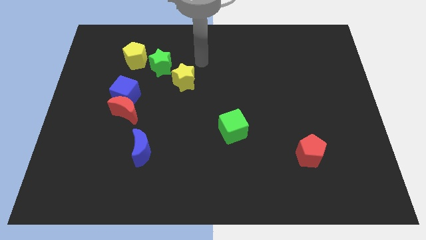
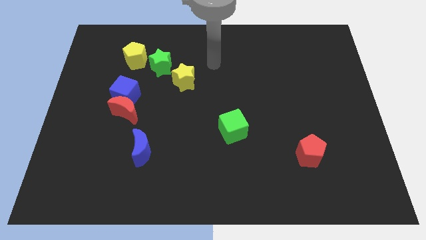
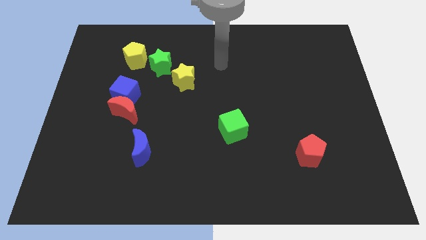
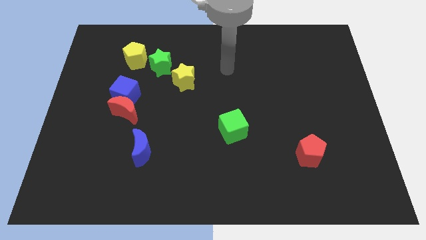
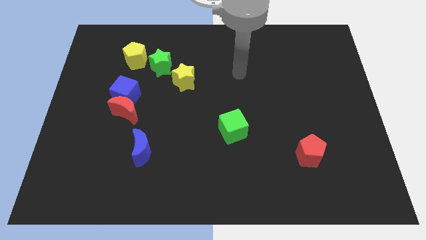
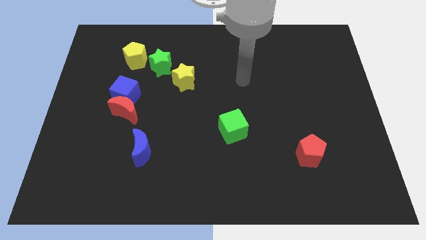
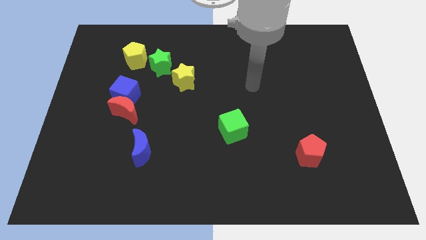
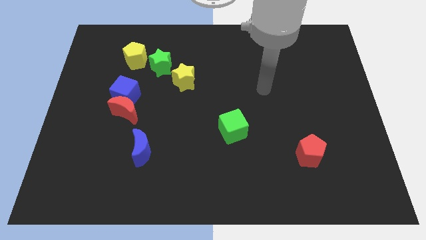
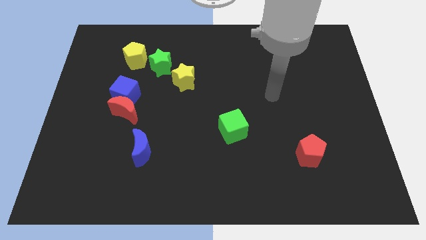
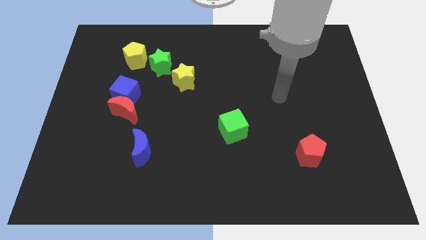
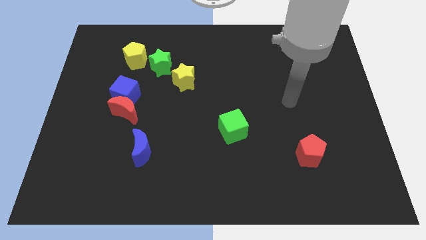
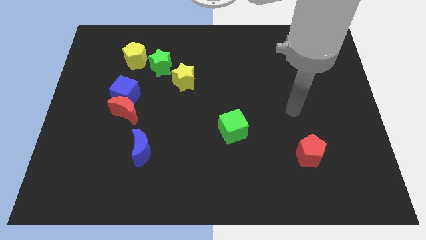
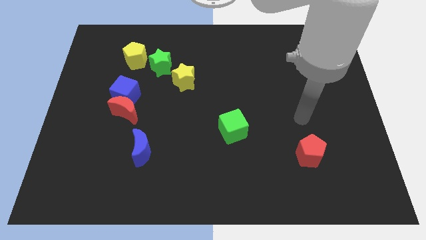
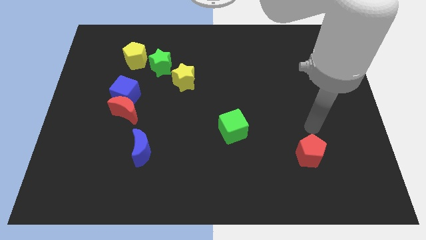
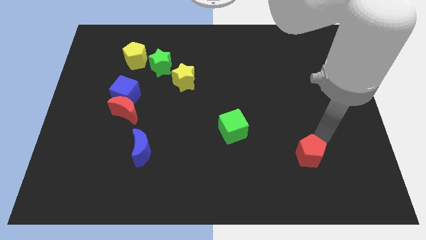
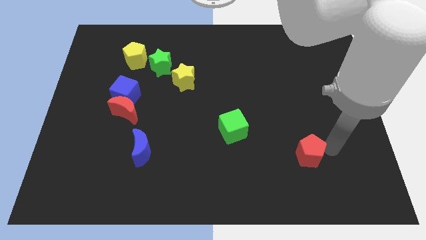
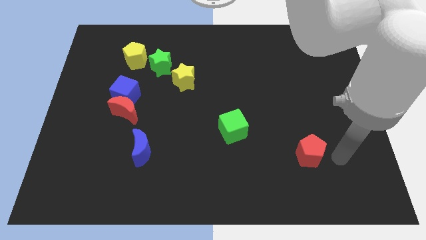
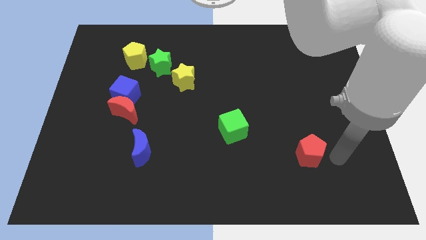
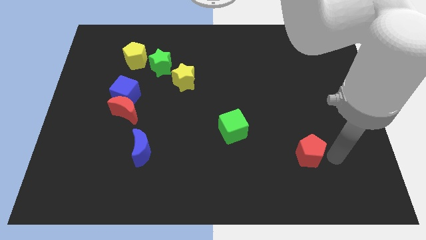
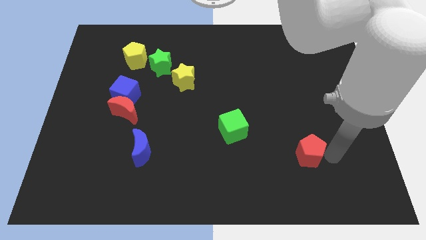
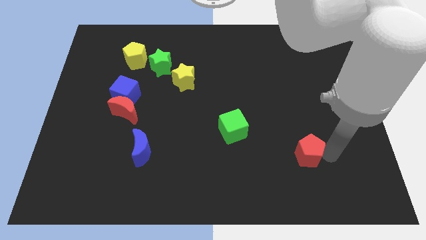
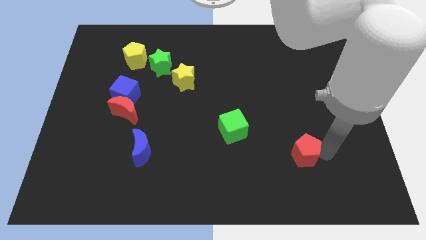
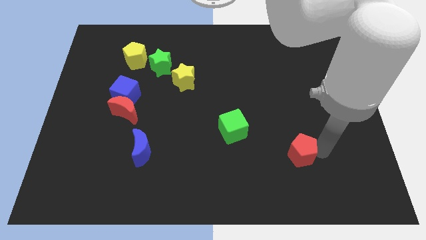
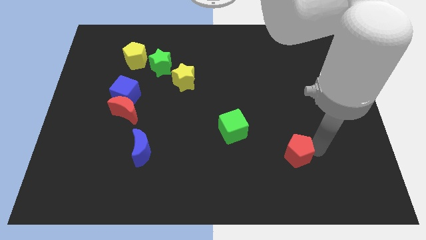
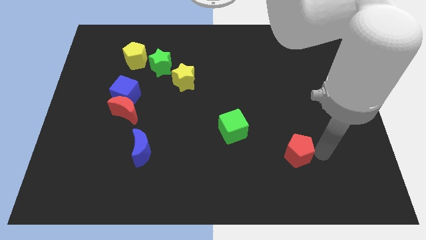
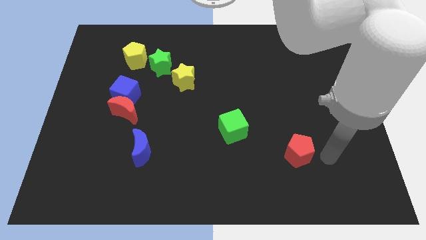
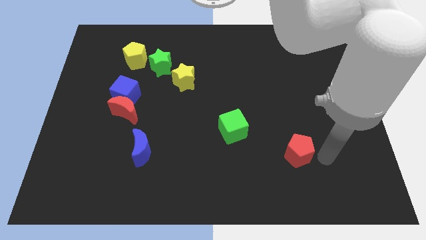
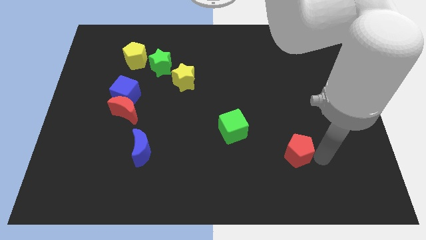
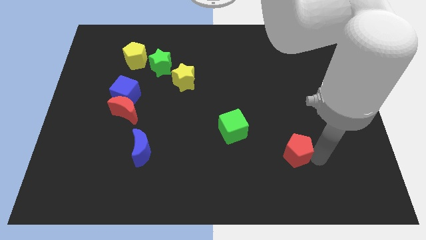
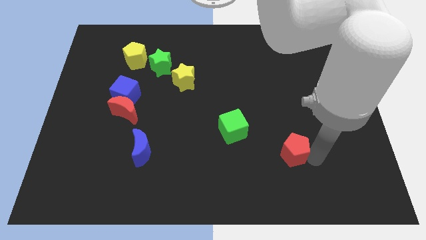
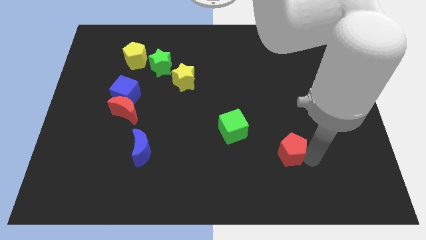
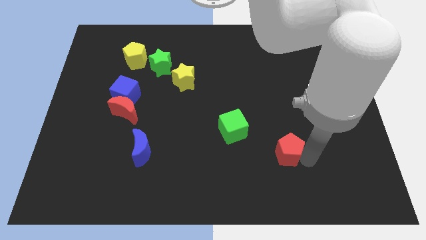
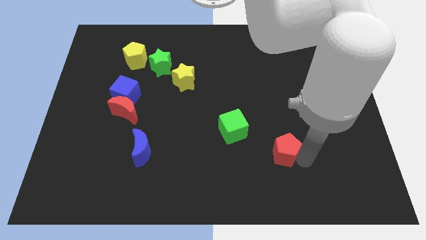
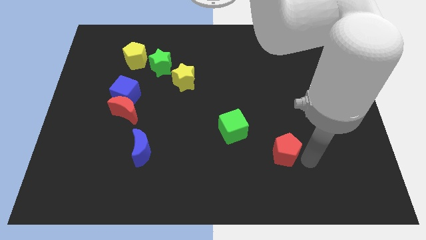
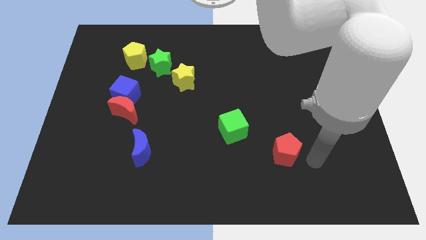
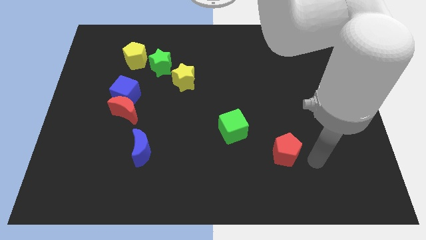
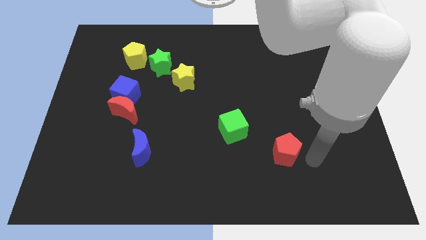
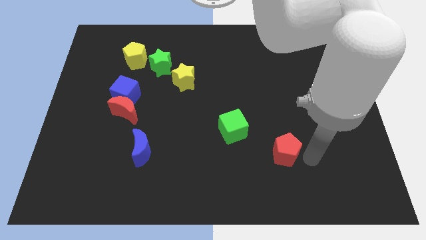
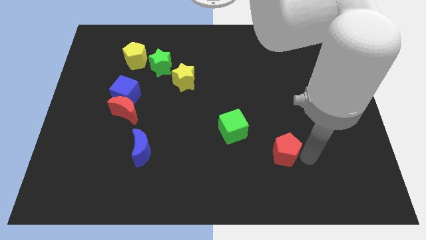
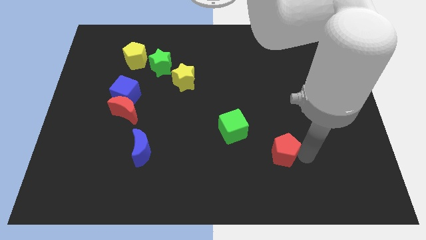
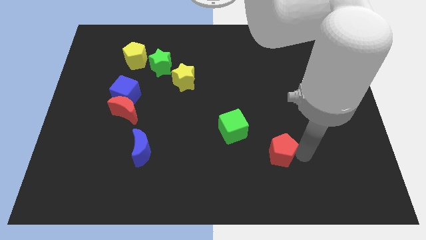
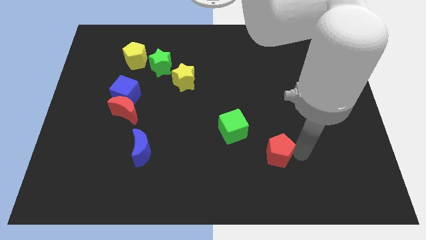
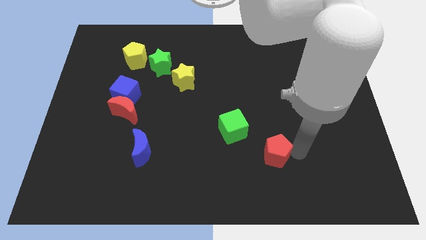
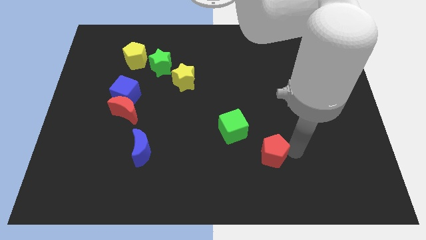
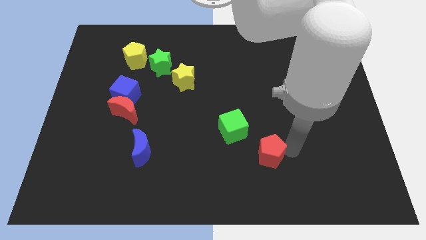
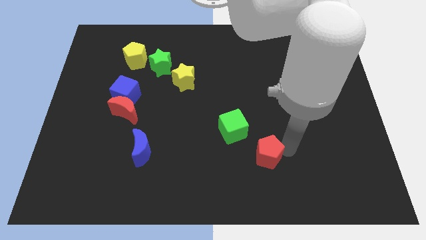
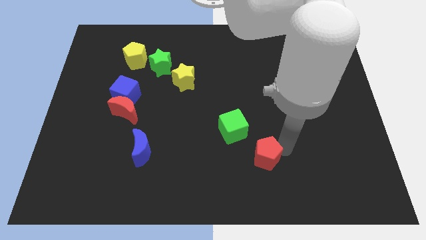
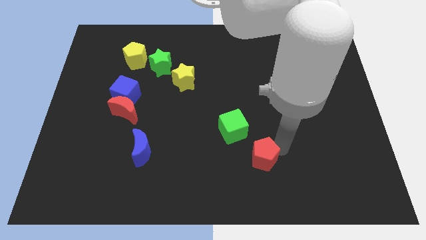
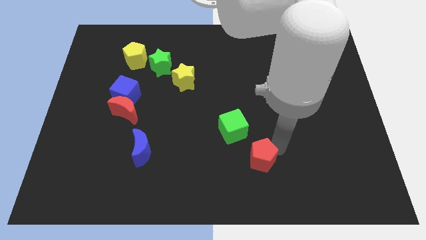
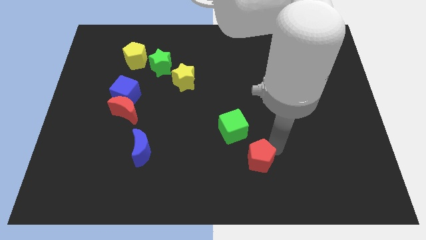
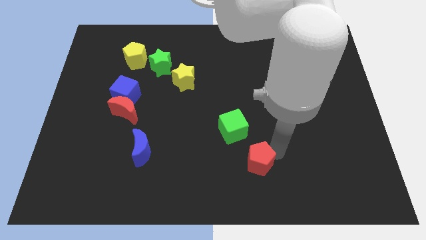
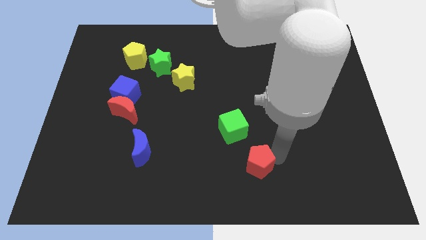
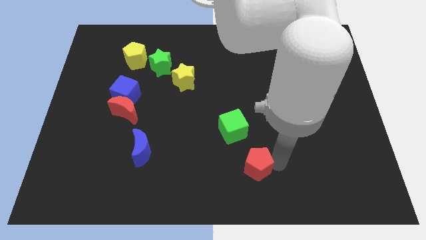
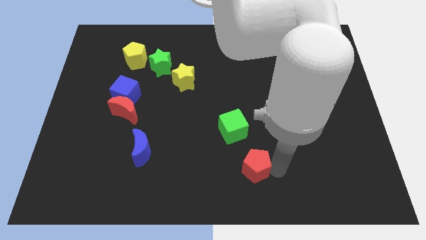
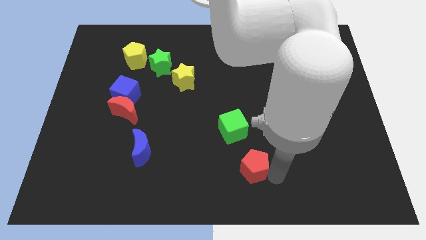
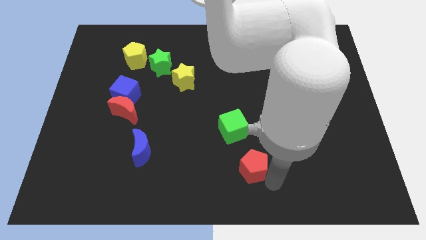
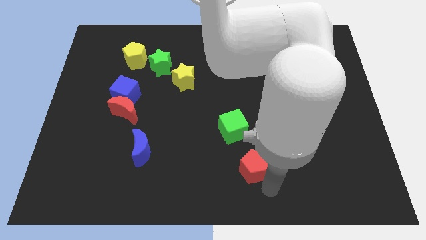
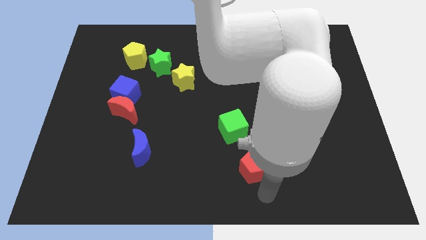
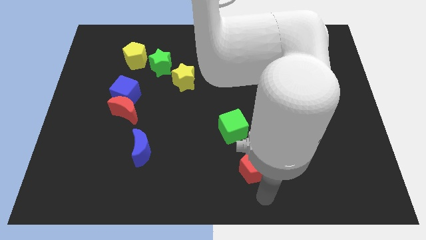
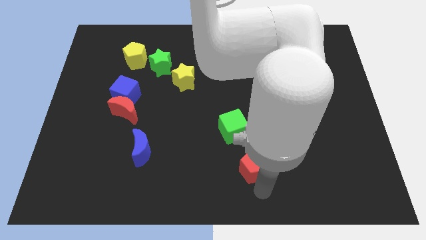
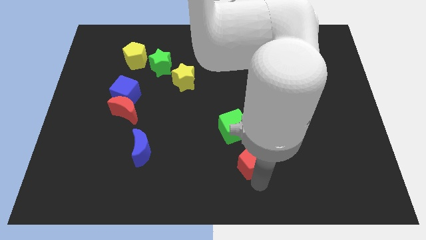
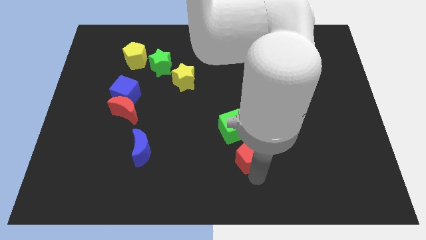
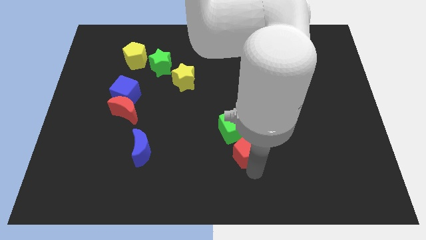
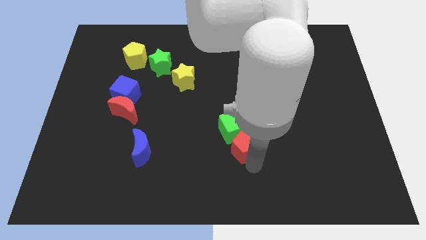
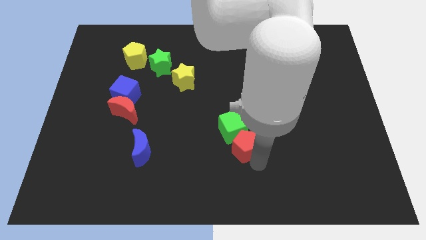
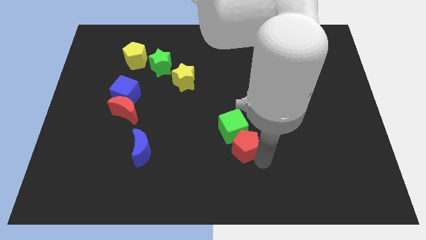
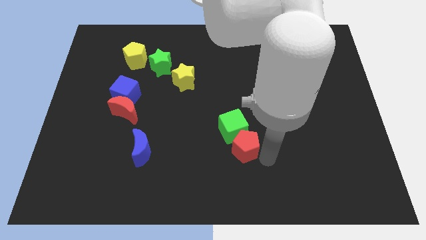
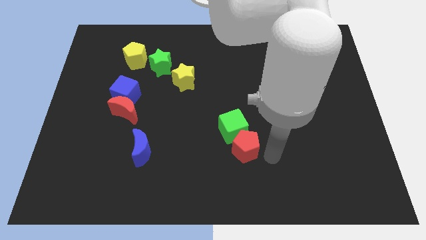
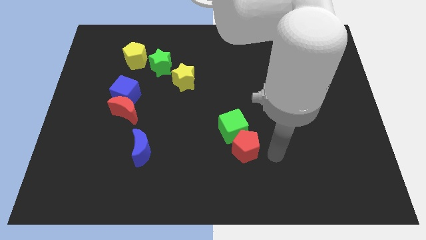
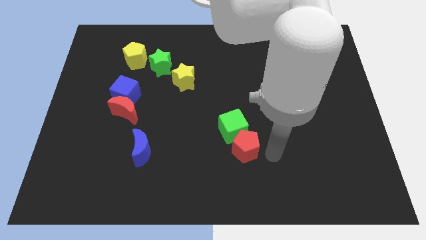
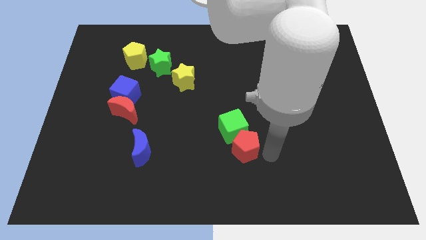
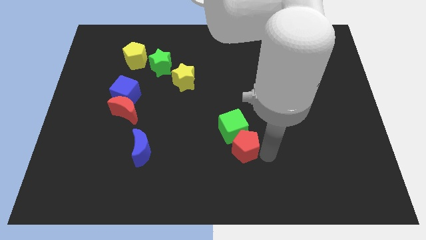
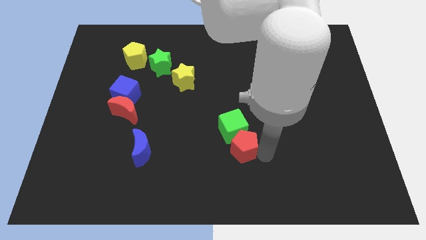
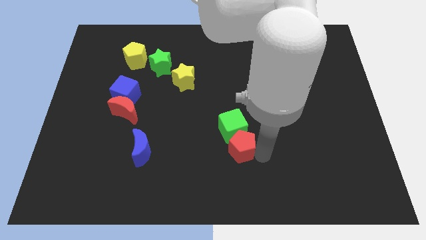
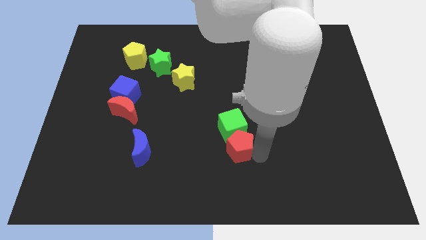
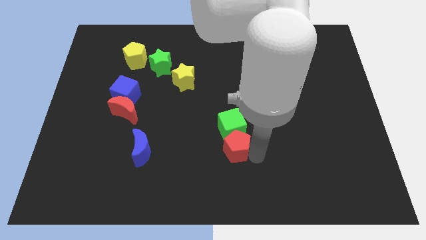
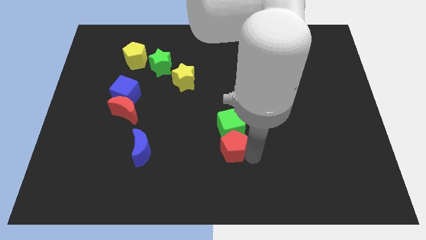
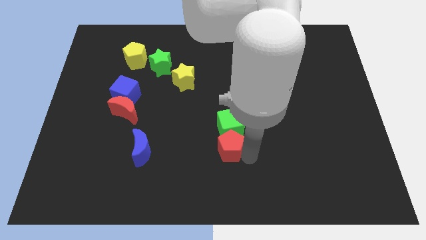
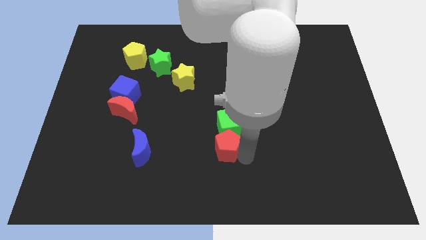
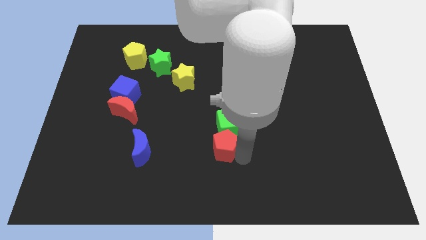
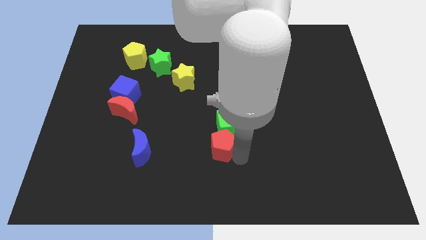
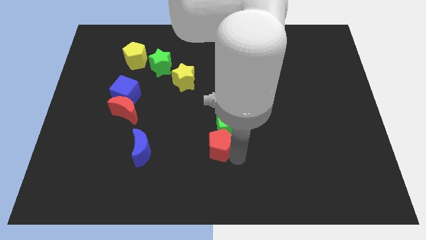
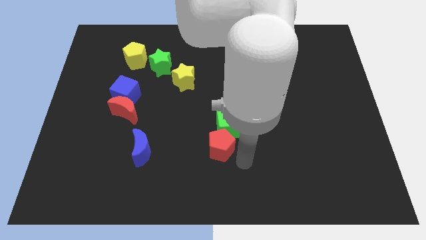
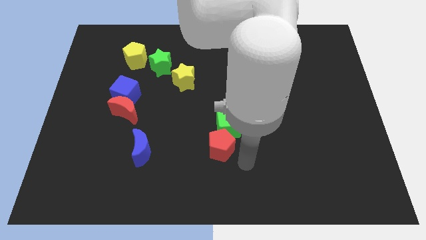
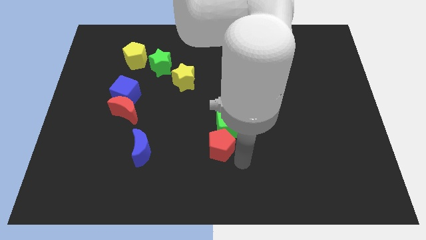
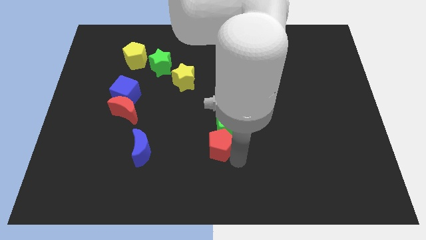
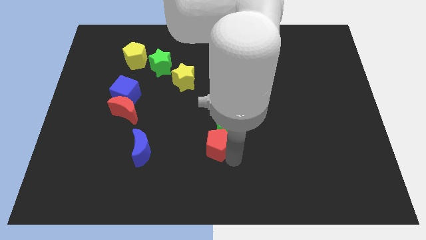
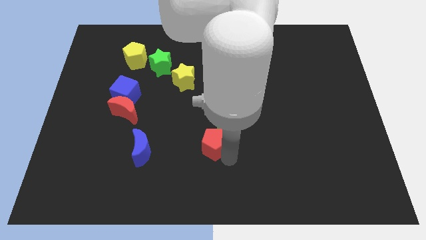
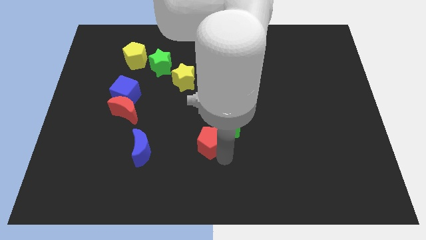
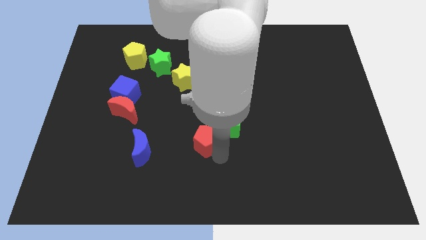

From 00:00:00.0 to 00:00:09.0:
put the red pentagon left of the green cube
